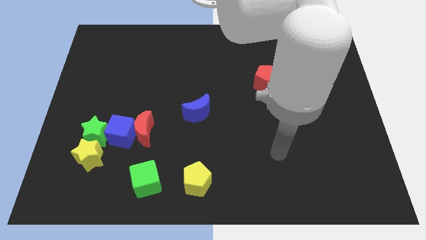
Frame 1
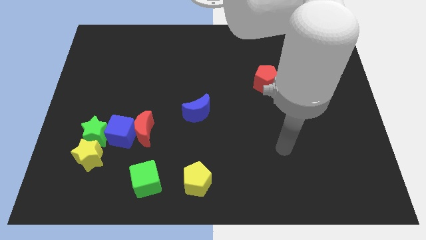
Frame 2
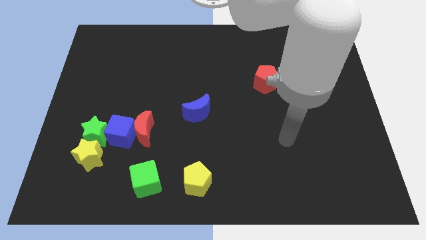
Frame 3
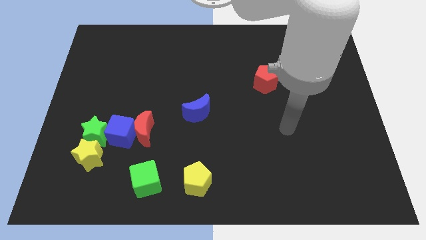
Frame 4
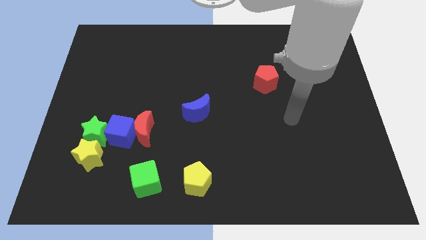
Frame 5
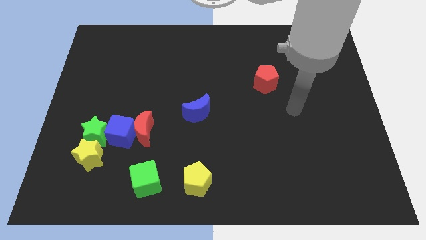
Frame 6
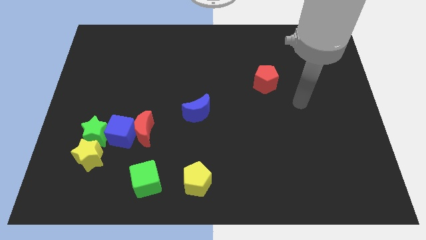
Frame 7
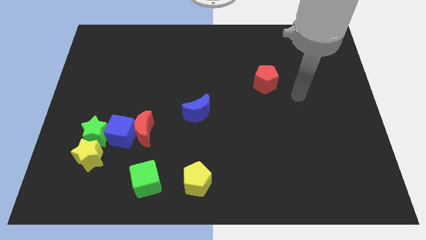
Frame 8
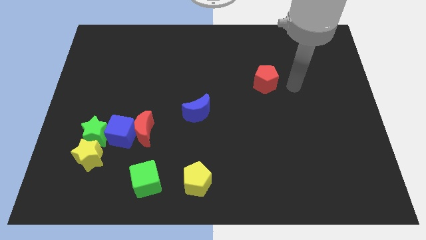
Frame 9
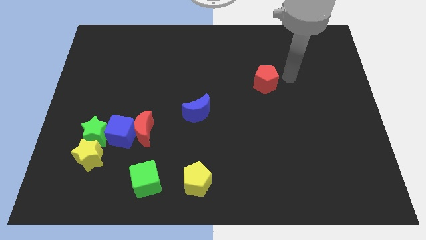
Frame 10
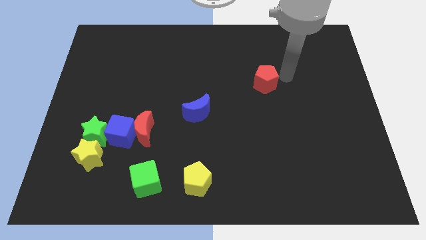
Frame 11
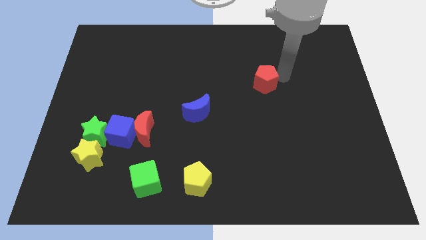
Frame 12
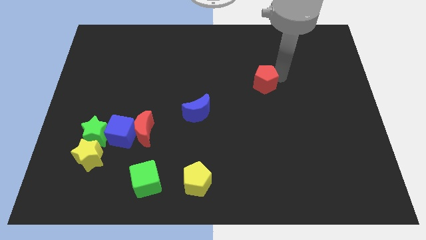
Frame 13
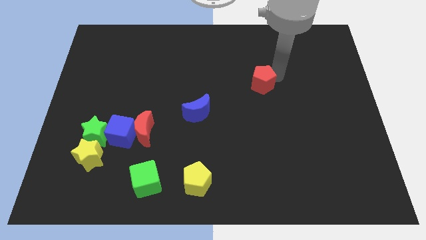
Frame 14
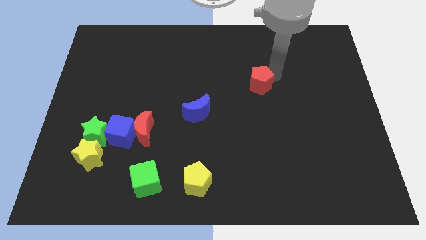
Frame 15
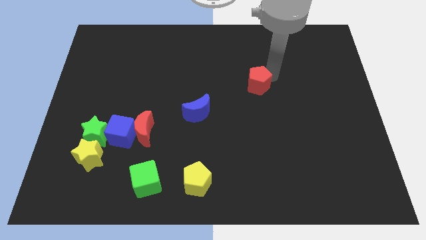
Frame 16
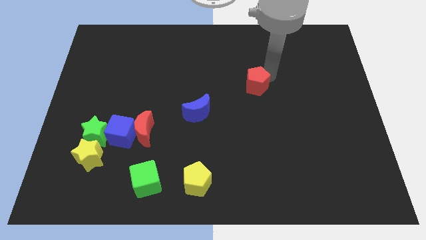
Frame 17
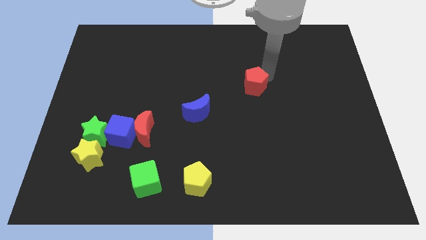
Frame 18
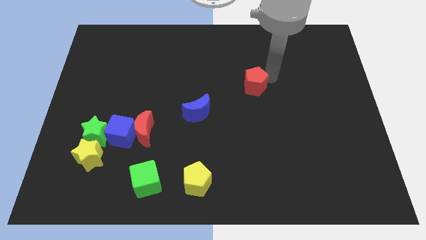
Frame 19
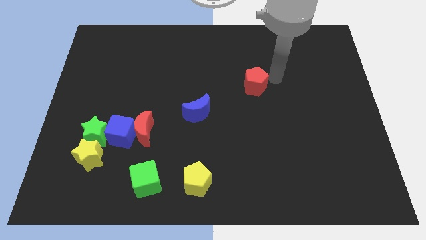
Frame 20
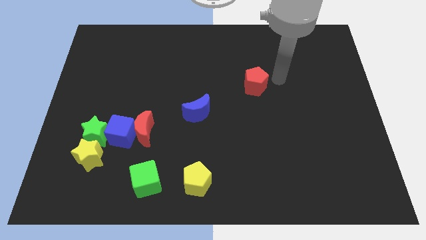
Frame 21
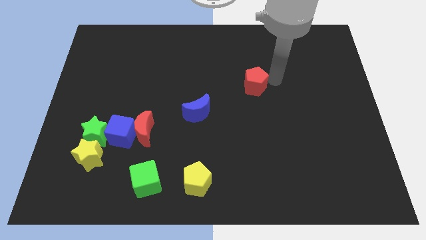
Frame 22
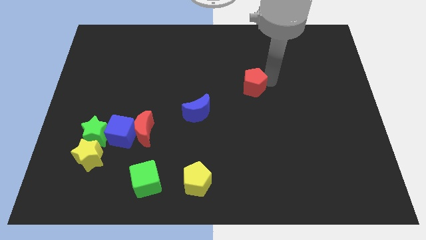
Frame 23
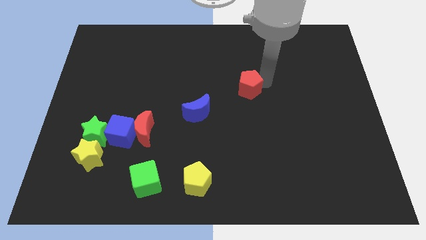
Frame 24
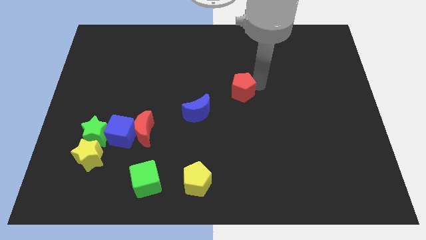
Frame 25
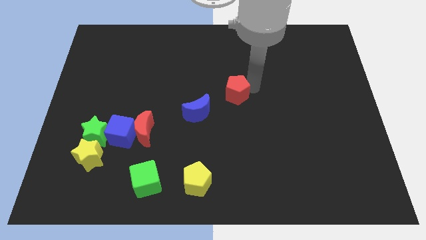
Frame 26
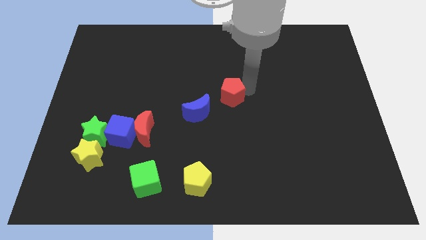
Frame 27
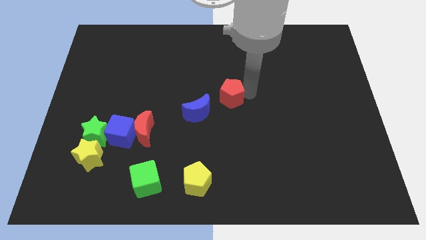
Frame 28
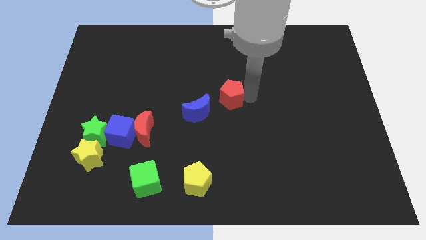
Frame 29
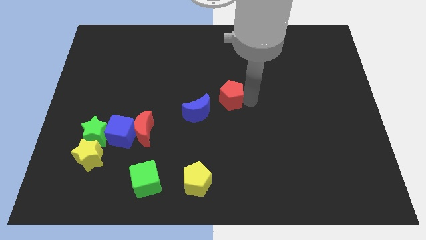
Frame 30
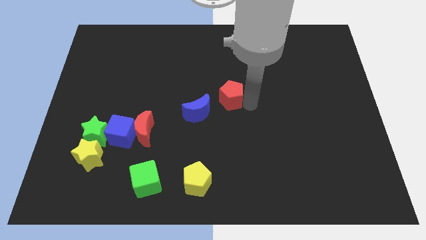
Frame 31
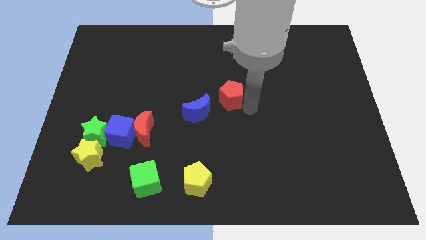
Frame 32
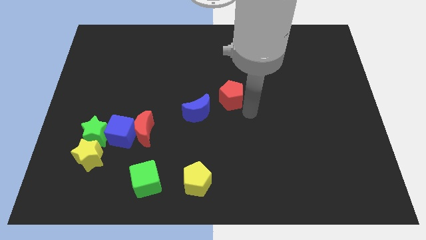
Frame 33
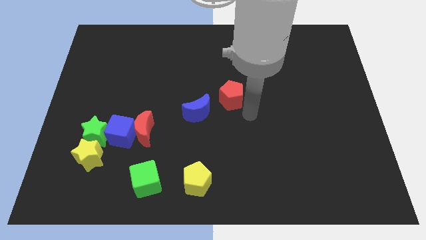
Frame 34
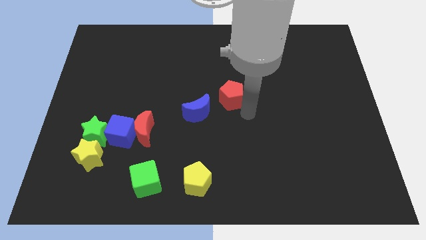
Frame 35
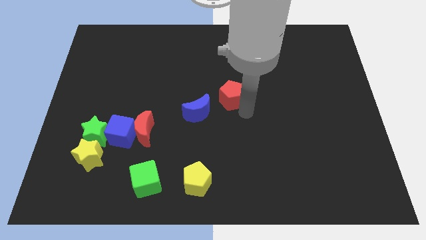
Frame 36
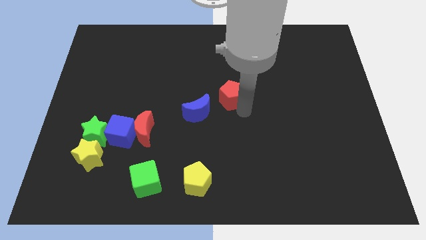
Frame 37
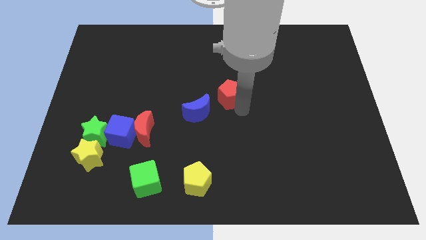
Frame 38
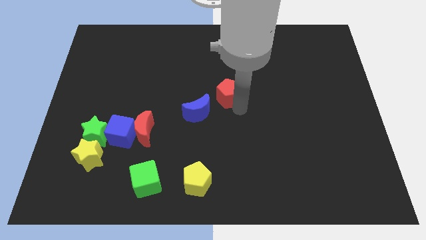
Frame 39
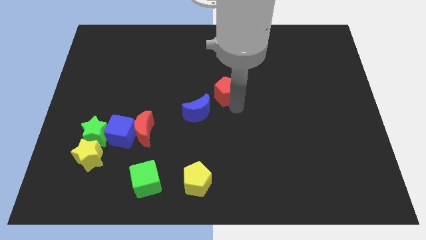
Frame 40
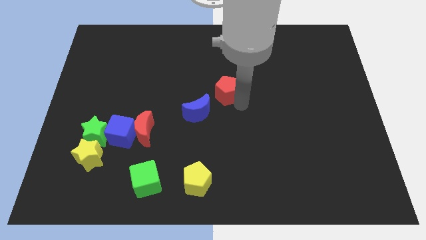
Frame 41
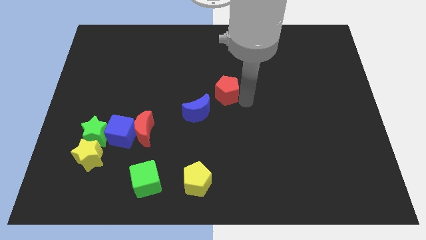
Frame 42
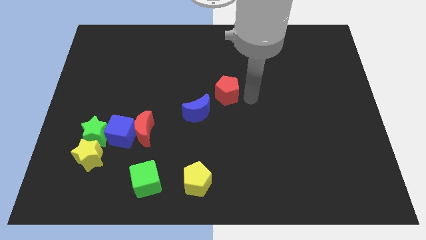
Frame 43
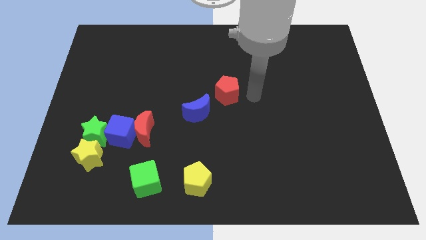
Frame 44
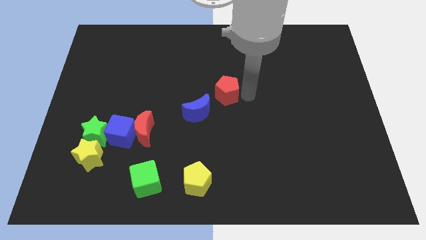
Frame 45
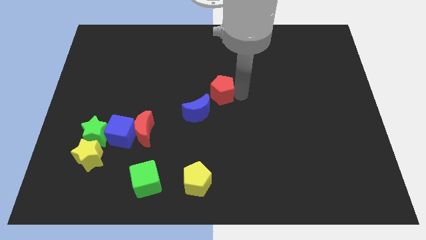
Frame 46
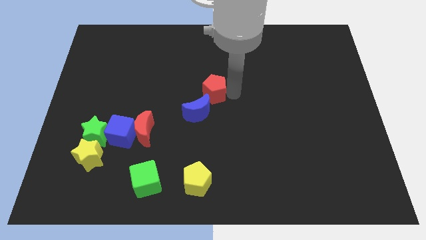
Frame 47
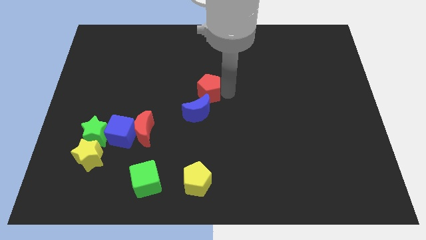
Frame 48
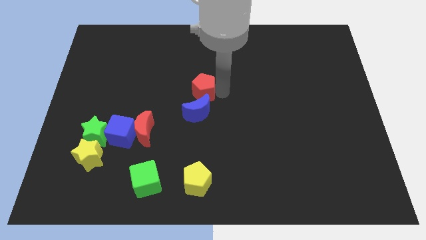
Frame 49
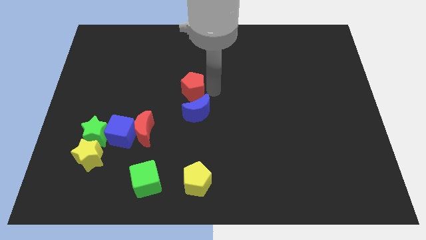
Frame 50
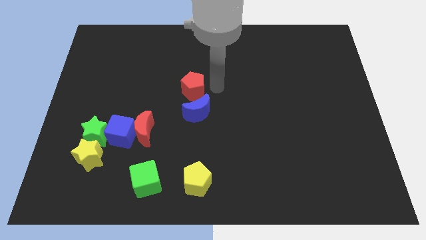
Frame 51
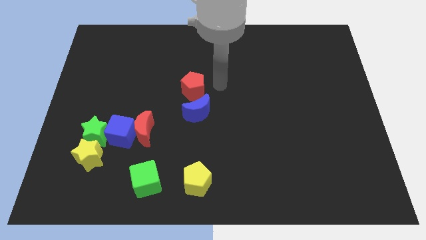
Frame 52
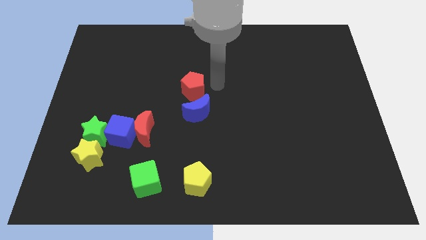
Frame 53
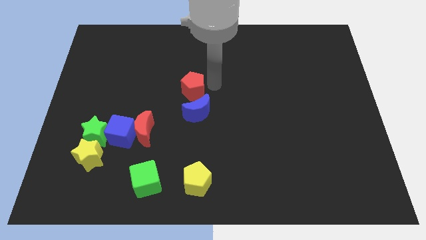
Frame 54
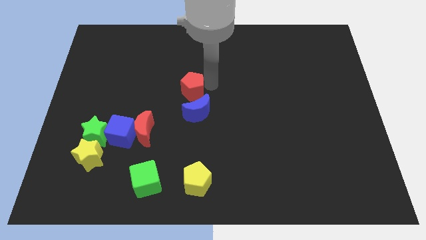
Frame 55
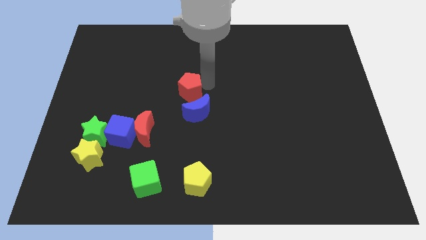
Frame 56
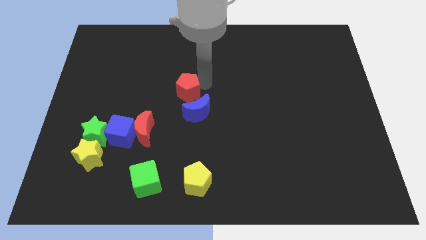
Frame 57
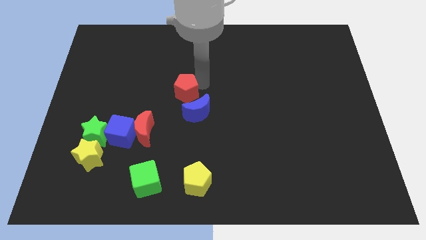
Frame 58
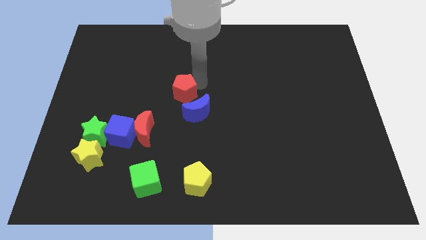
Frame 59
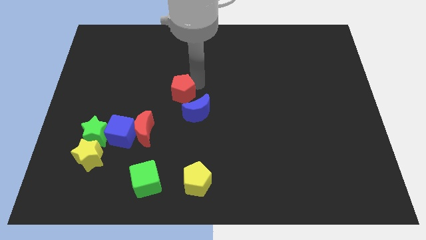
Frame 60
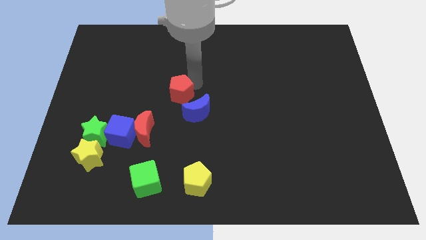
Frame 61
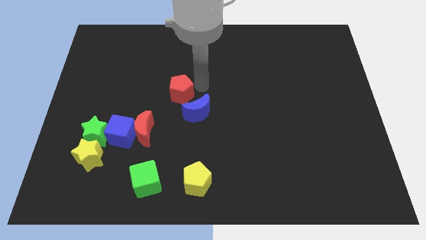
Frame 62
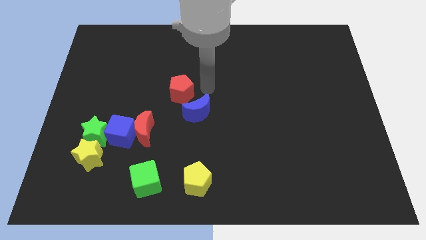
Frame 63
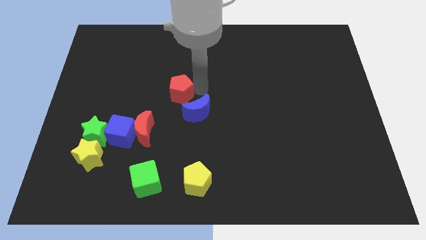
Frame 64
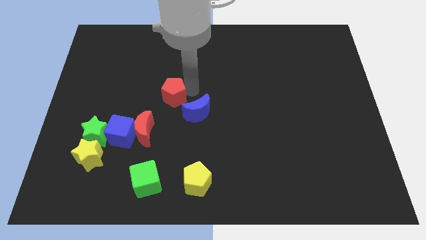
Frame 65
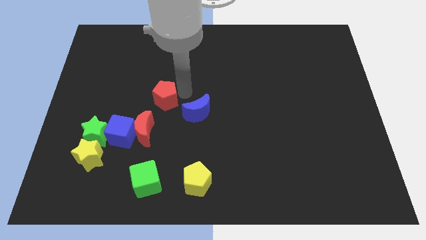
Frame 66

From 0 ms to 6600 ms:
put the red pentagon to the top side of the red moon
